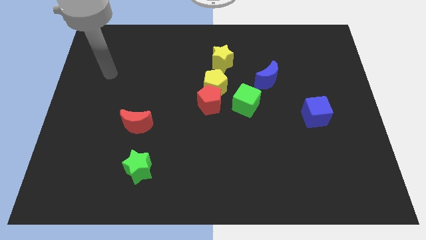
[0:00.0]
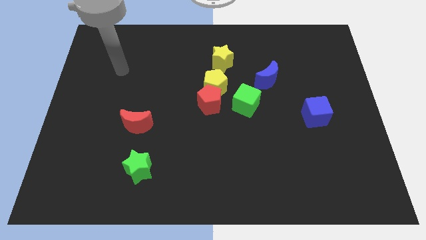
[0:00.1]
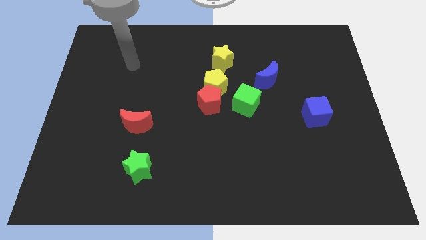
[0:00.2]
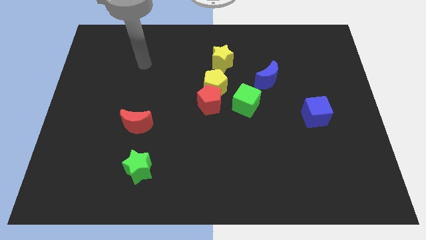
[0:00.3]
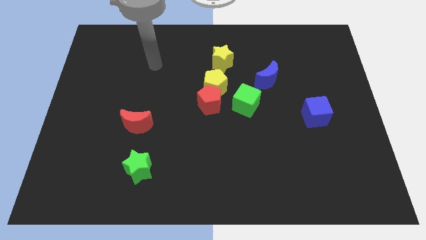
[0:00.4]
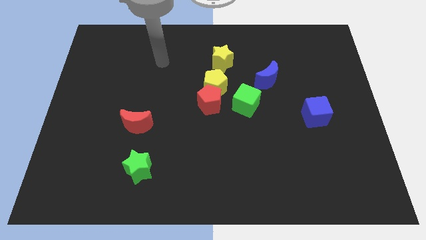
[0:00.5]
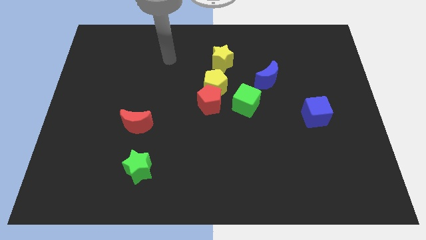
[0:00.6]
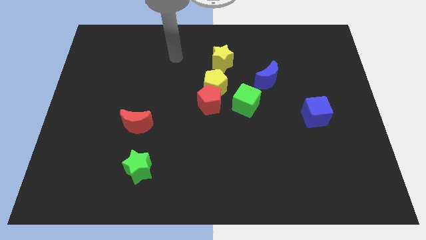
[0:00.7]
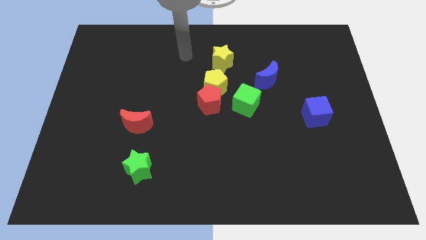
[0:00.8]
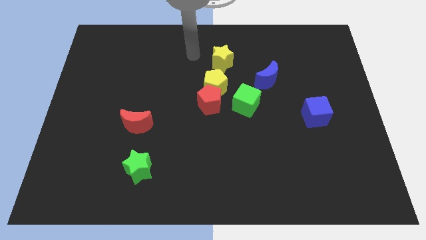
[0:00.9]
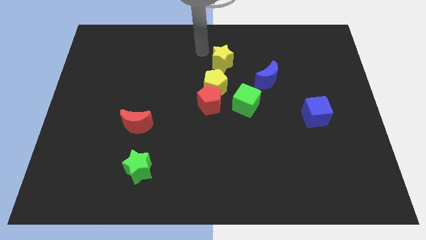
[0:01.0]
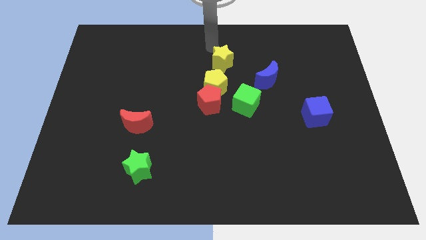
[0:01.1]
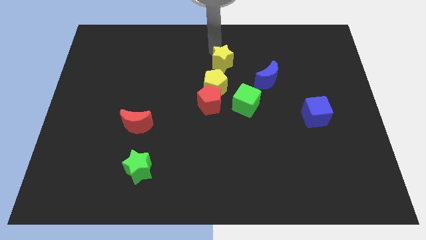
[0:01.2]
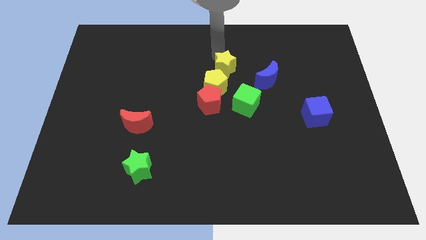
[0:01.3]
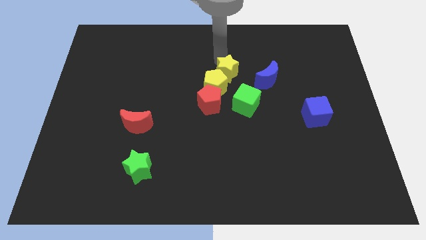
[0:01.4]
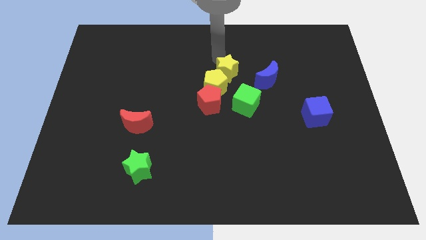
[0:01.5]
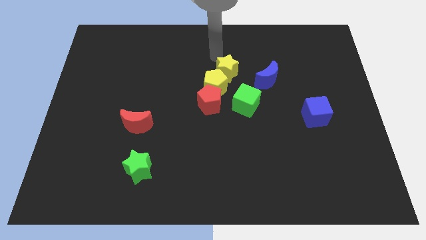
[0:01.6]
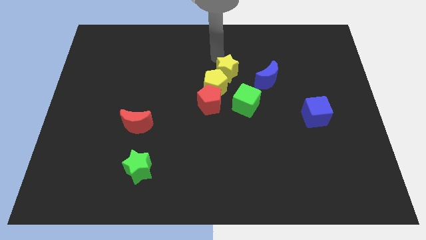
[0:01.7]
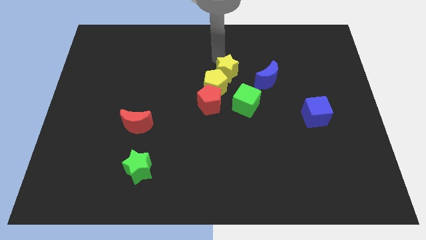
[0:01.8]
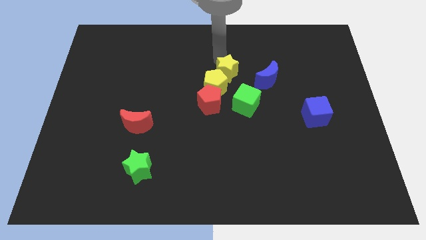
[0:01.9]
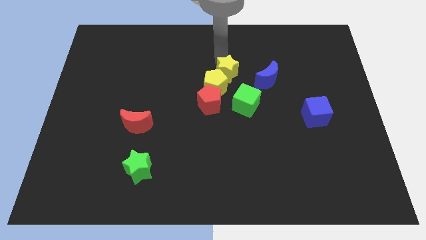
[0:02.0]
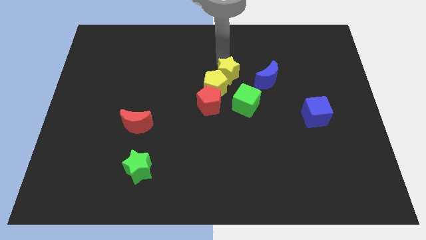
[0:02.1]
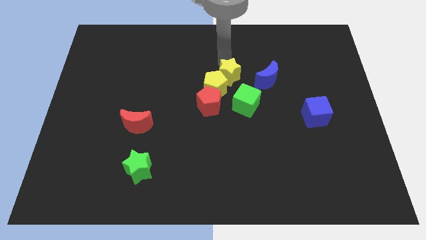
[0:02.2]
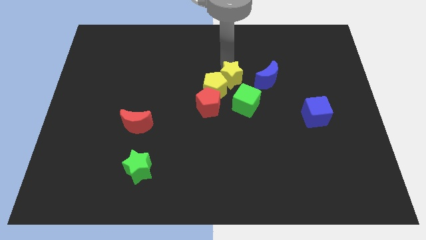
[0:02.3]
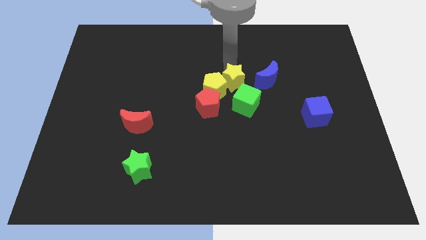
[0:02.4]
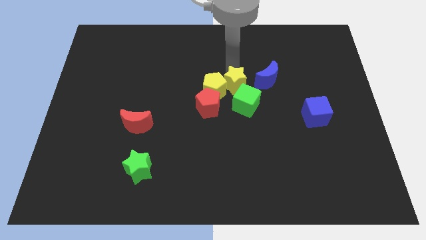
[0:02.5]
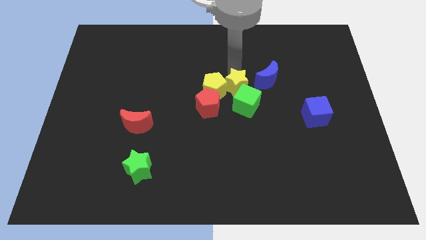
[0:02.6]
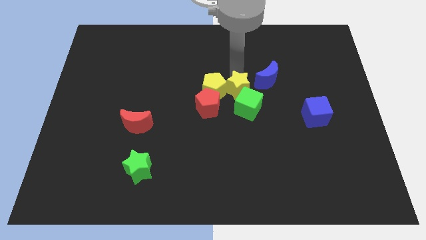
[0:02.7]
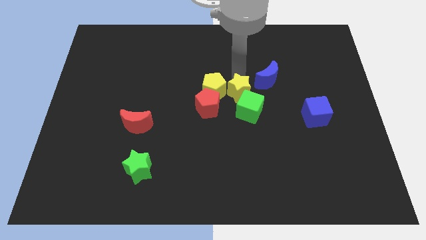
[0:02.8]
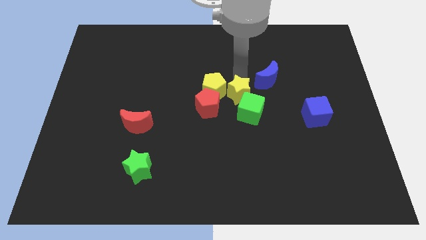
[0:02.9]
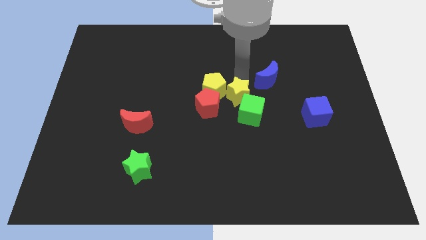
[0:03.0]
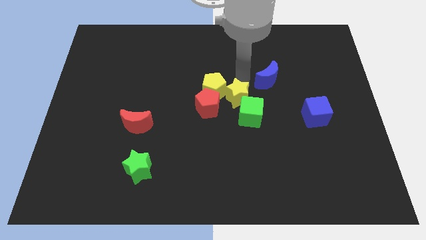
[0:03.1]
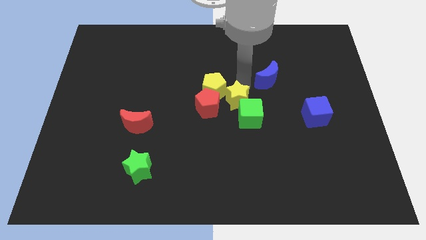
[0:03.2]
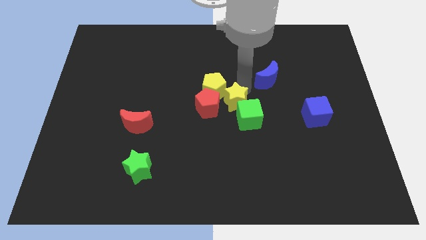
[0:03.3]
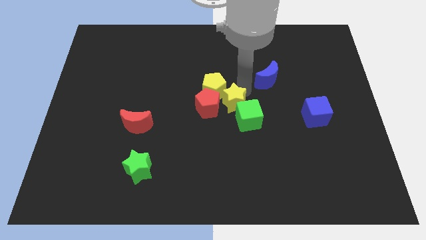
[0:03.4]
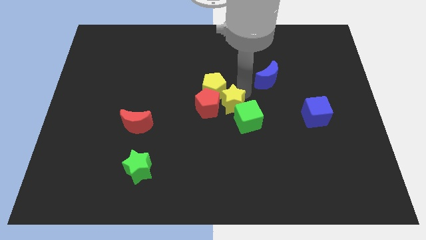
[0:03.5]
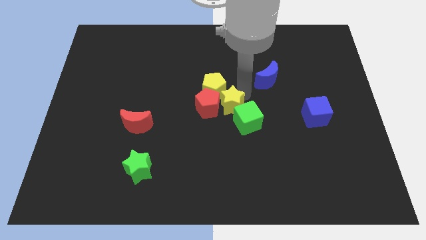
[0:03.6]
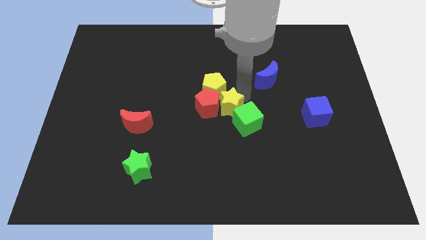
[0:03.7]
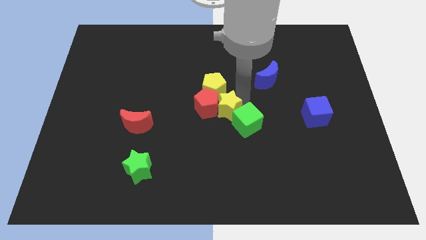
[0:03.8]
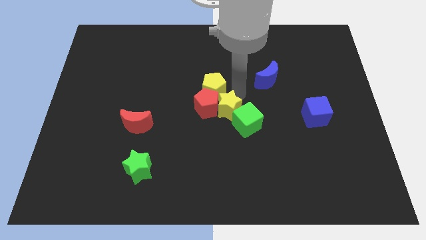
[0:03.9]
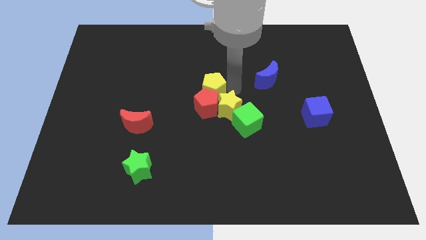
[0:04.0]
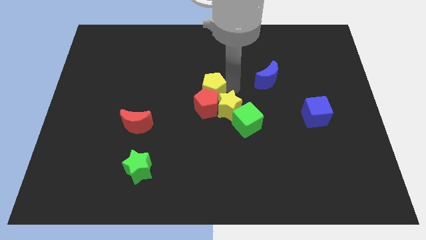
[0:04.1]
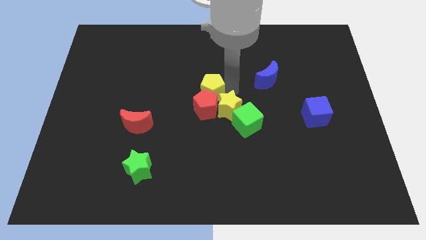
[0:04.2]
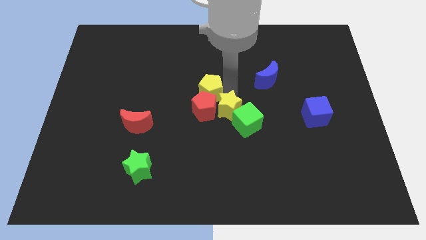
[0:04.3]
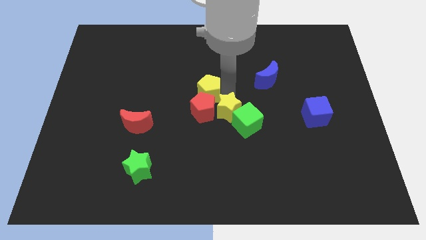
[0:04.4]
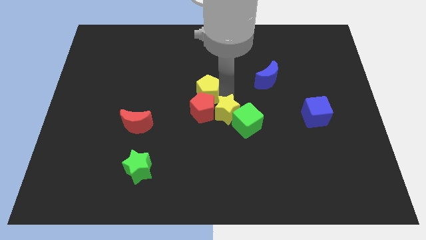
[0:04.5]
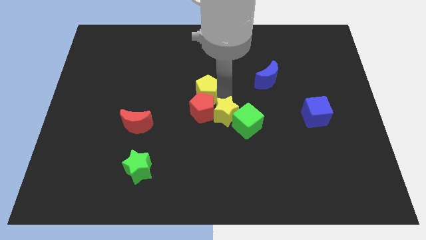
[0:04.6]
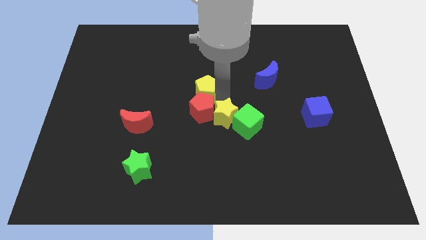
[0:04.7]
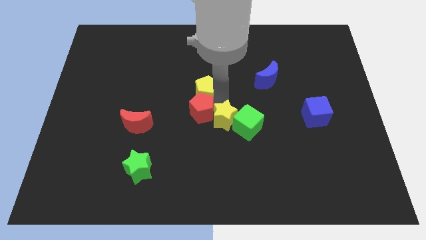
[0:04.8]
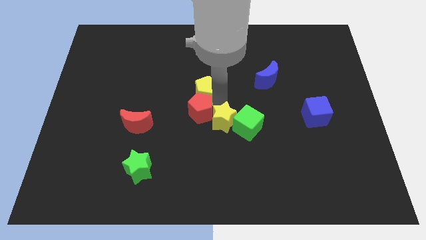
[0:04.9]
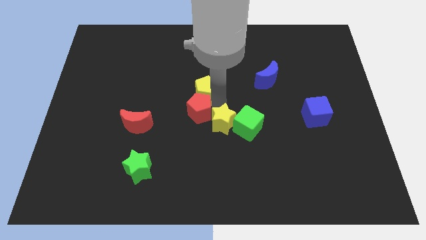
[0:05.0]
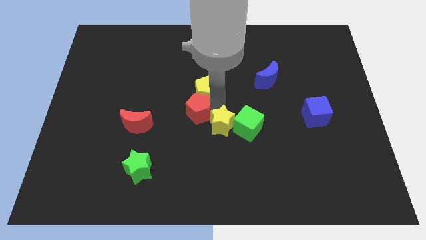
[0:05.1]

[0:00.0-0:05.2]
move the yellow star down

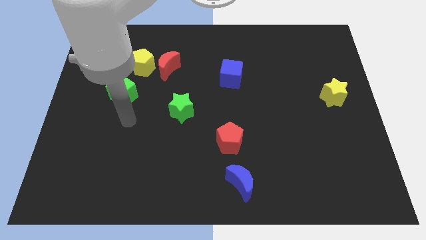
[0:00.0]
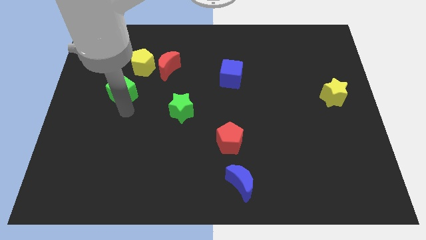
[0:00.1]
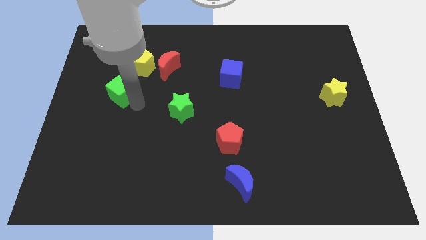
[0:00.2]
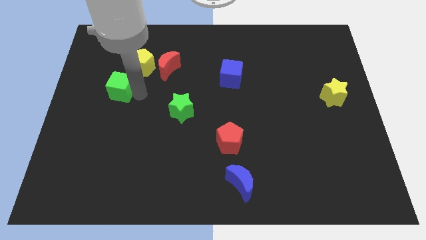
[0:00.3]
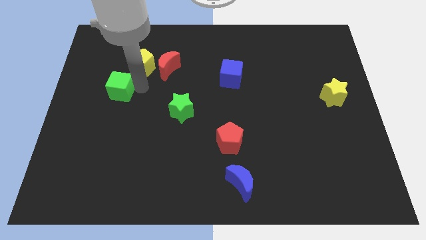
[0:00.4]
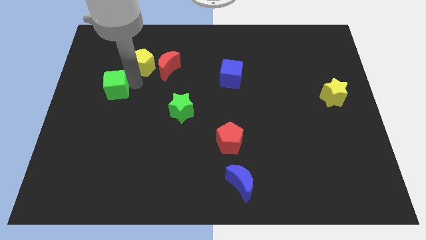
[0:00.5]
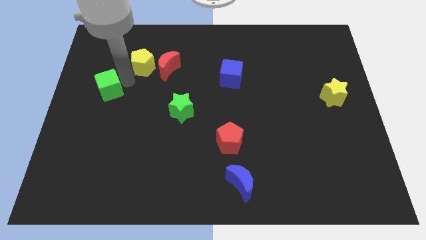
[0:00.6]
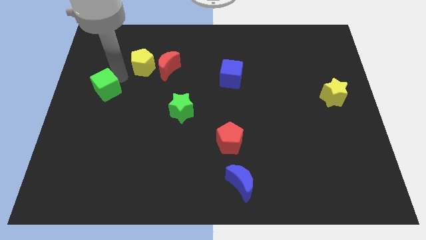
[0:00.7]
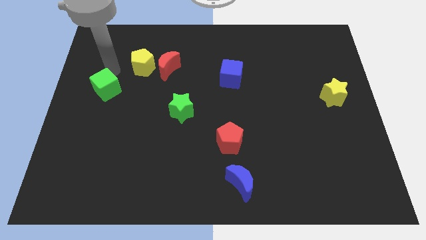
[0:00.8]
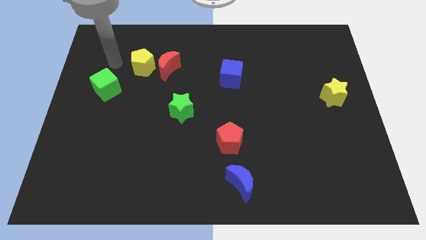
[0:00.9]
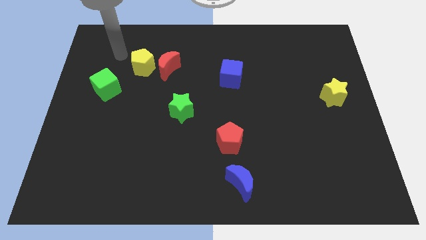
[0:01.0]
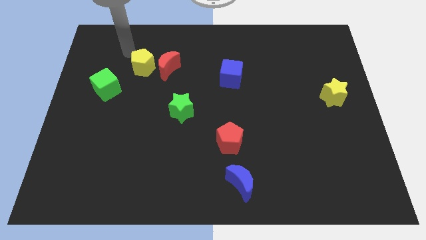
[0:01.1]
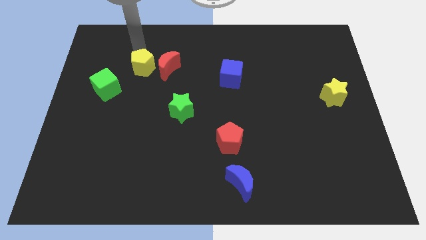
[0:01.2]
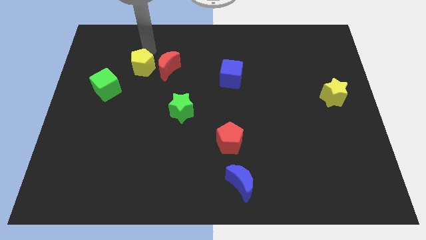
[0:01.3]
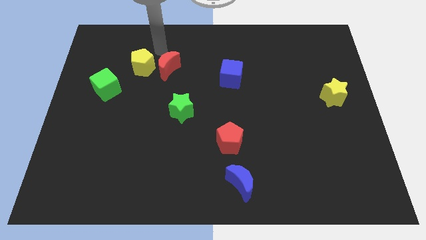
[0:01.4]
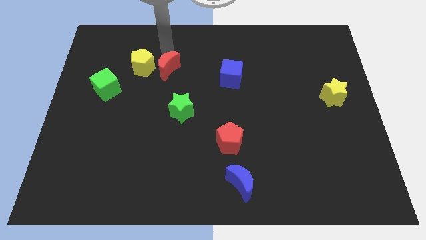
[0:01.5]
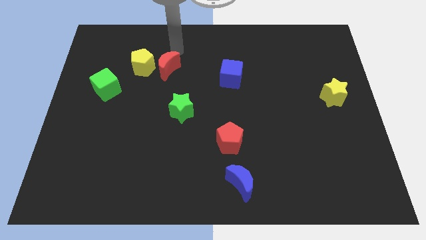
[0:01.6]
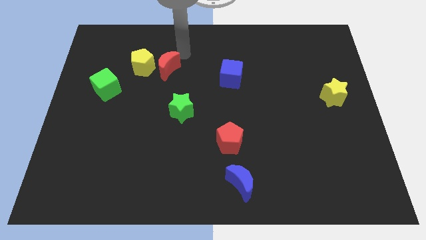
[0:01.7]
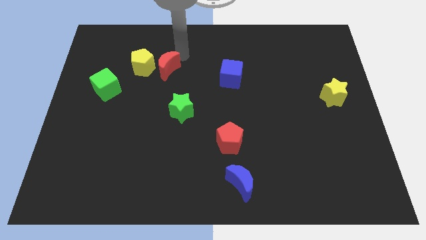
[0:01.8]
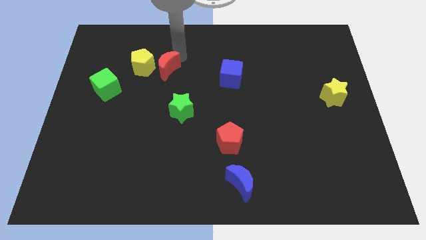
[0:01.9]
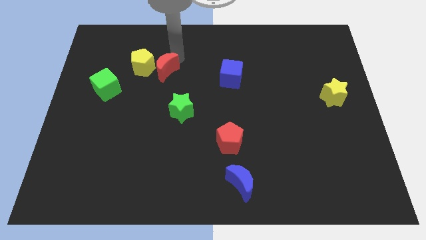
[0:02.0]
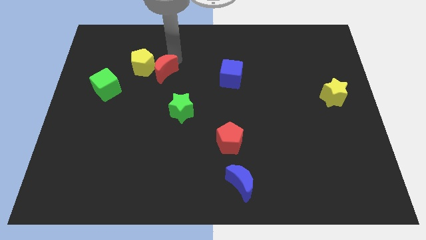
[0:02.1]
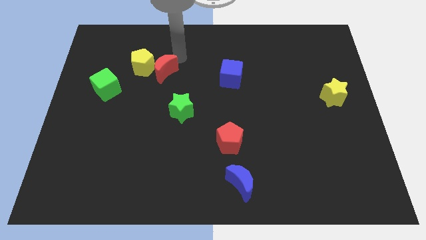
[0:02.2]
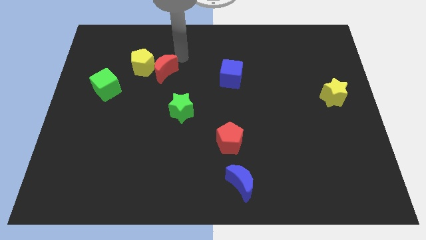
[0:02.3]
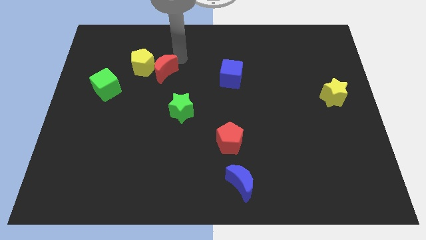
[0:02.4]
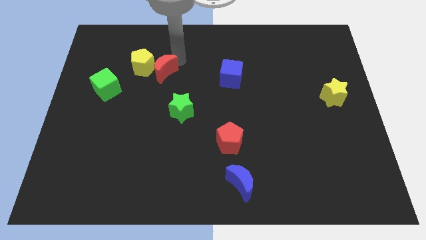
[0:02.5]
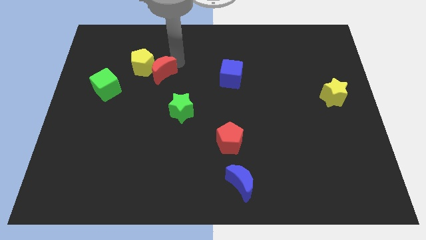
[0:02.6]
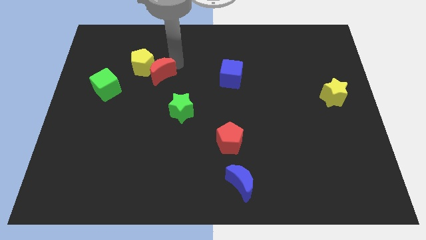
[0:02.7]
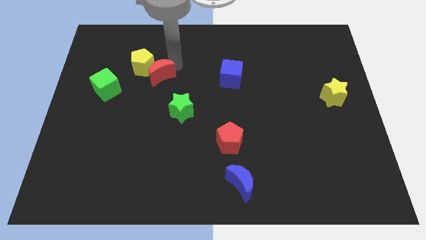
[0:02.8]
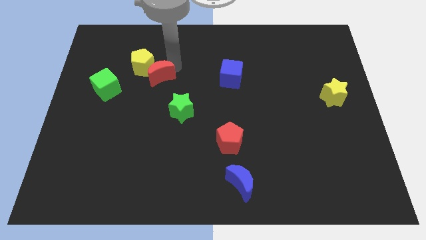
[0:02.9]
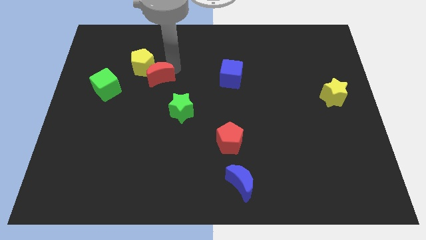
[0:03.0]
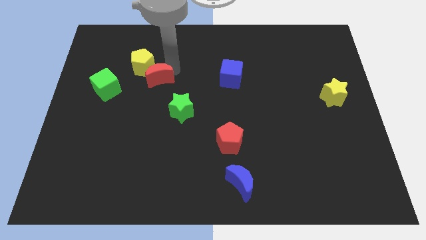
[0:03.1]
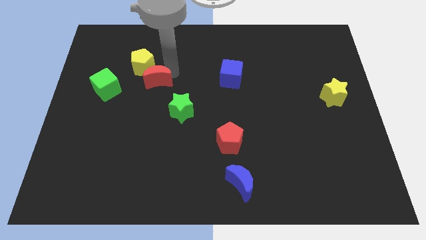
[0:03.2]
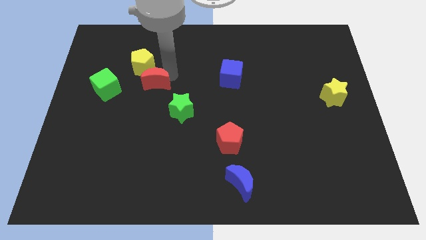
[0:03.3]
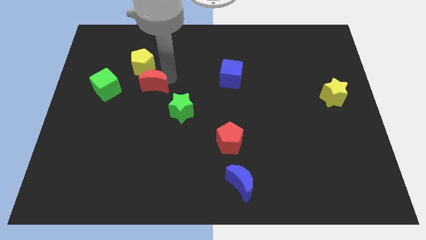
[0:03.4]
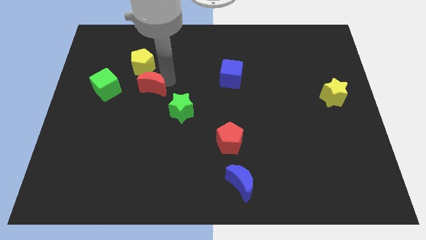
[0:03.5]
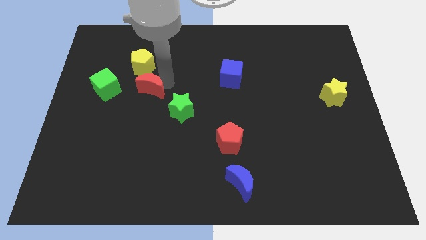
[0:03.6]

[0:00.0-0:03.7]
slightly push the red moon downwards and then left
